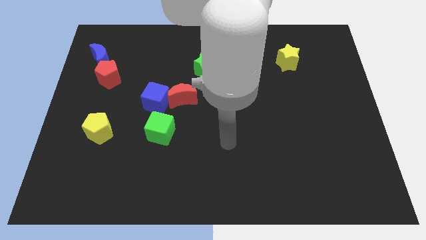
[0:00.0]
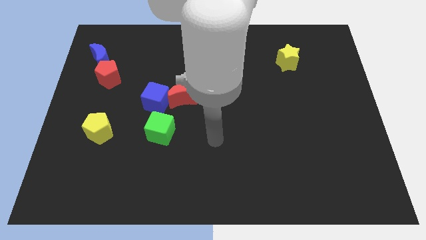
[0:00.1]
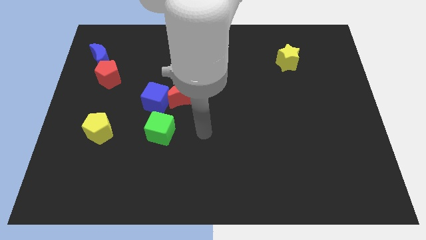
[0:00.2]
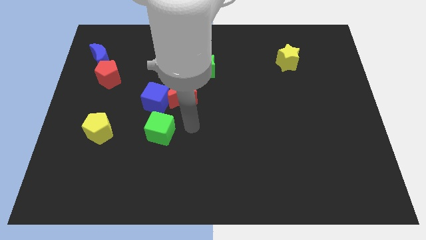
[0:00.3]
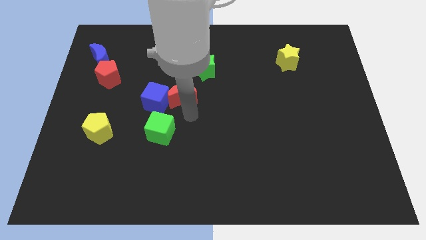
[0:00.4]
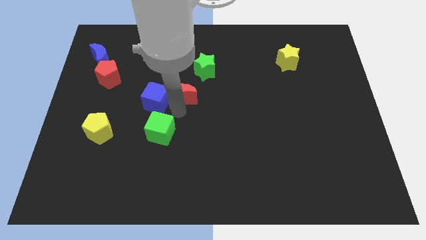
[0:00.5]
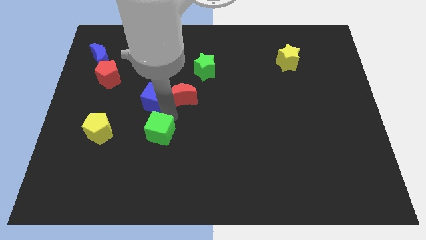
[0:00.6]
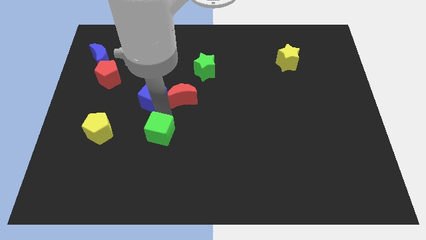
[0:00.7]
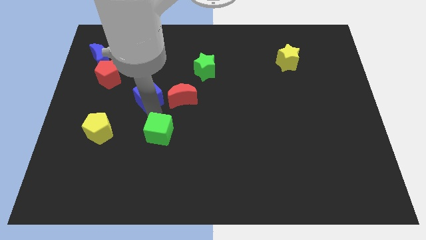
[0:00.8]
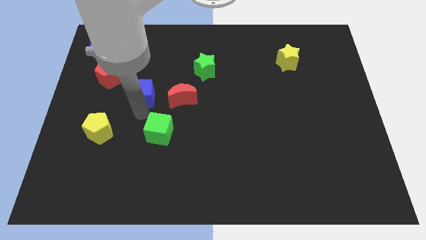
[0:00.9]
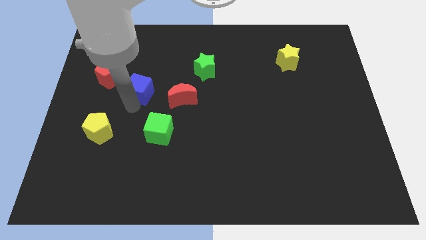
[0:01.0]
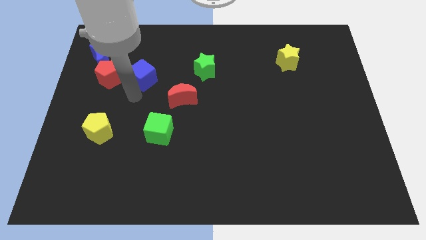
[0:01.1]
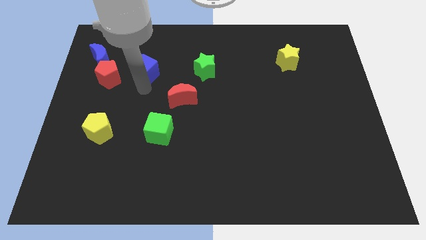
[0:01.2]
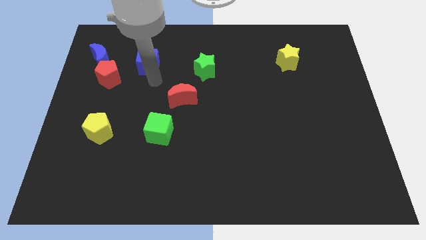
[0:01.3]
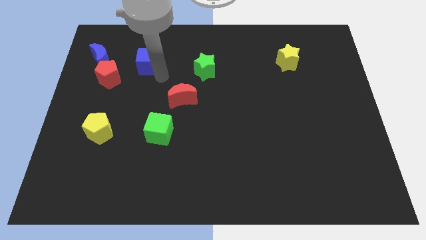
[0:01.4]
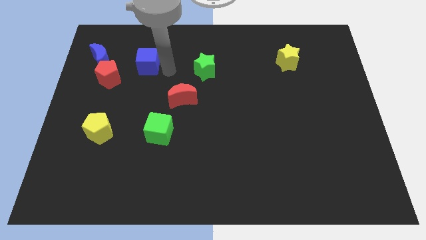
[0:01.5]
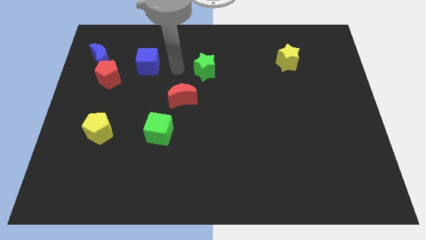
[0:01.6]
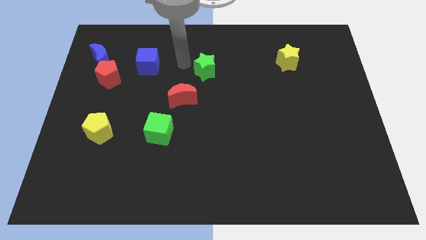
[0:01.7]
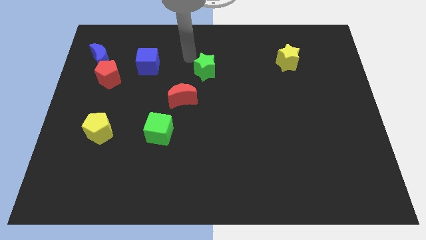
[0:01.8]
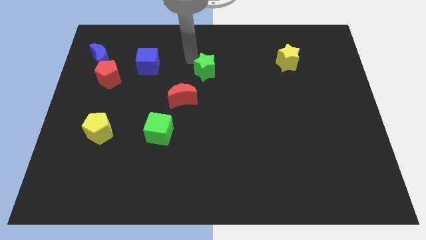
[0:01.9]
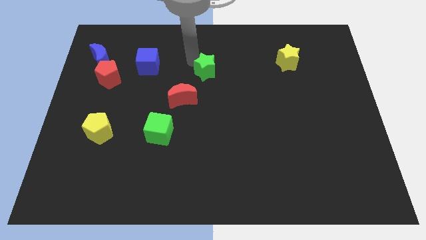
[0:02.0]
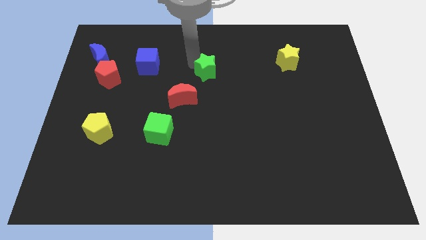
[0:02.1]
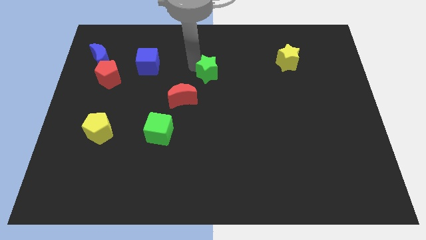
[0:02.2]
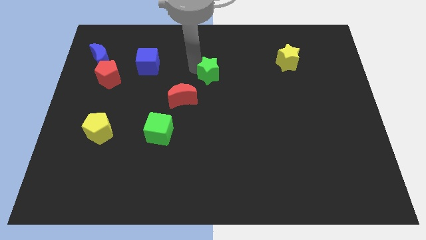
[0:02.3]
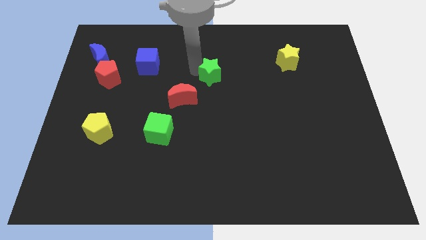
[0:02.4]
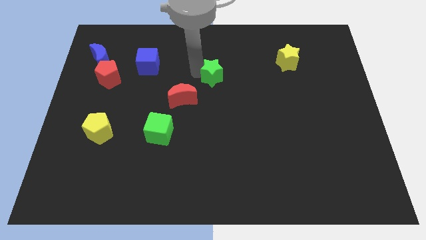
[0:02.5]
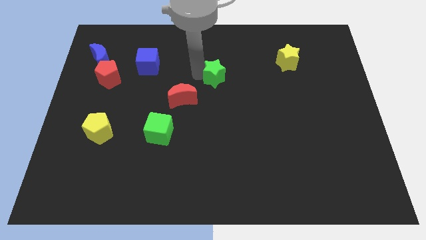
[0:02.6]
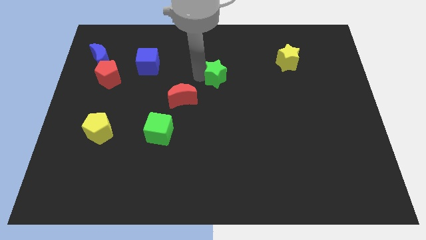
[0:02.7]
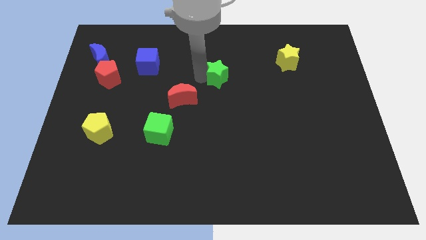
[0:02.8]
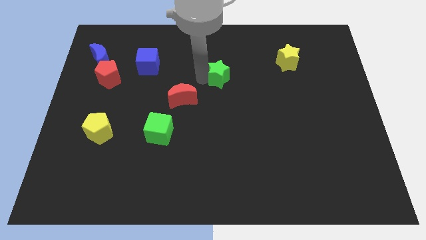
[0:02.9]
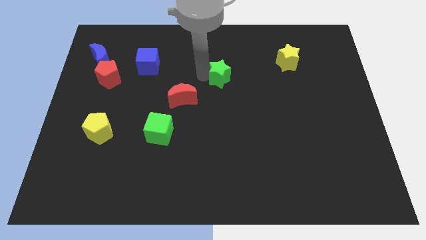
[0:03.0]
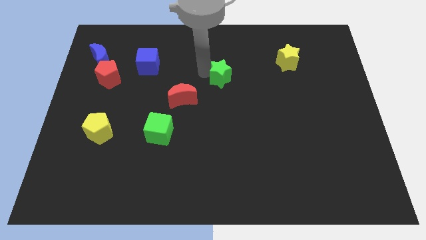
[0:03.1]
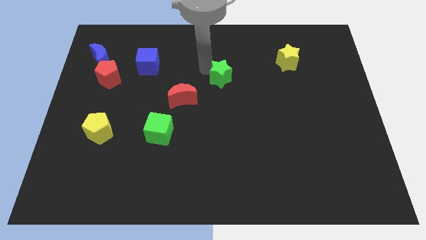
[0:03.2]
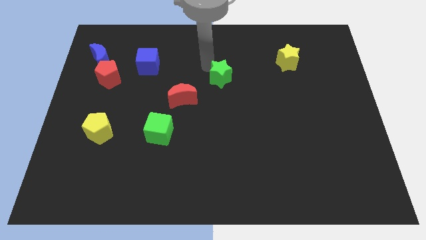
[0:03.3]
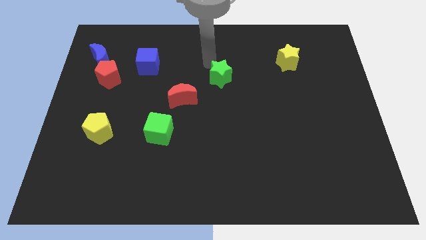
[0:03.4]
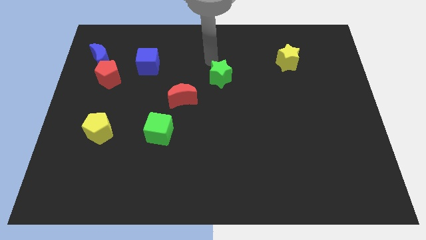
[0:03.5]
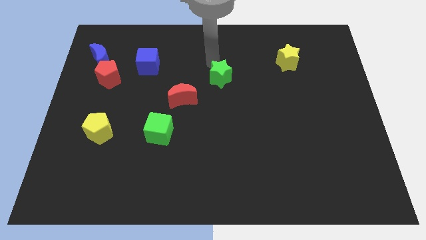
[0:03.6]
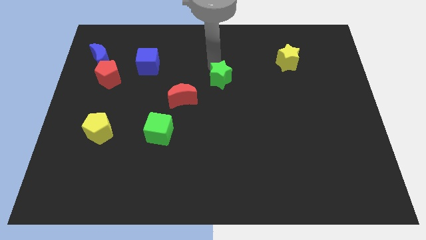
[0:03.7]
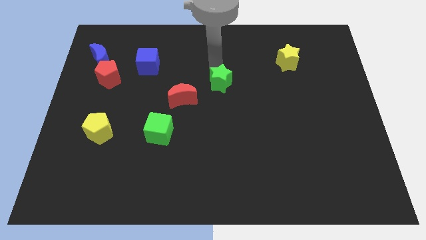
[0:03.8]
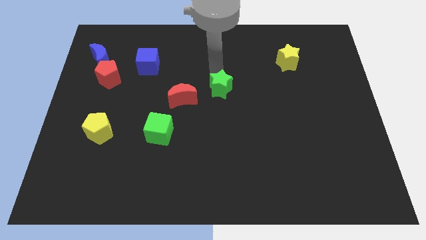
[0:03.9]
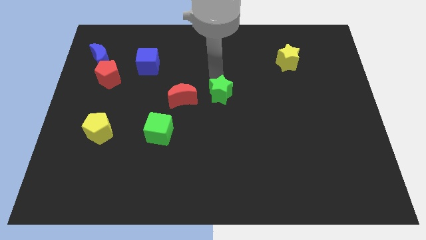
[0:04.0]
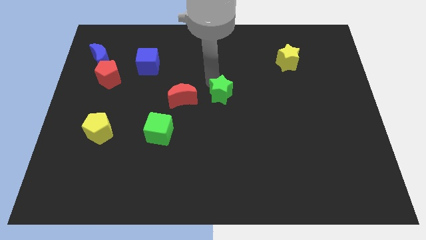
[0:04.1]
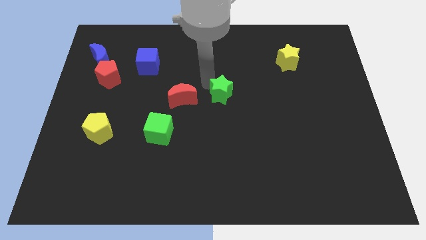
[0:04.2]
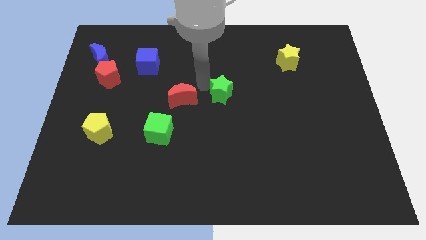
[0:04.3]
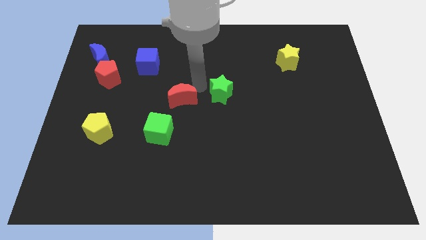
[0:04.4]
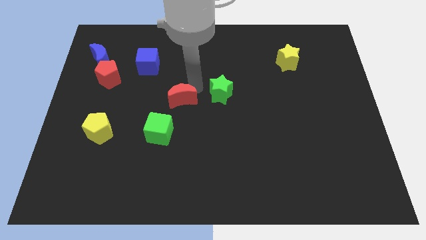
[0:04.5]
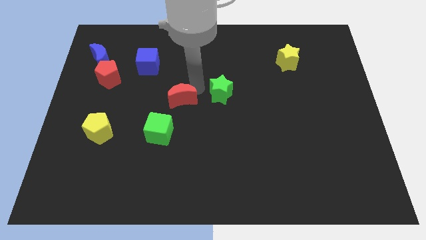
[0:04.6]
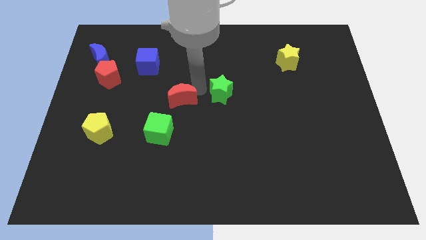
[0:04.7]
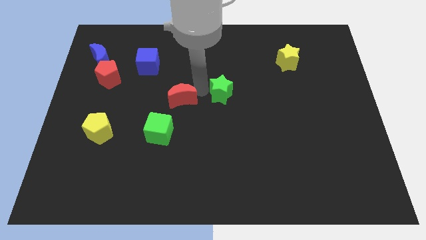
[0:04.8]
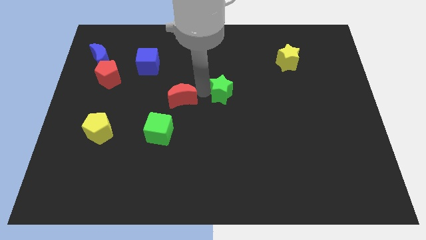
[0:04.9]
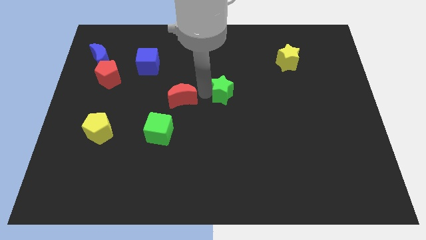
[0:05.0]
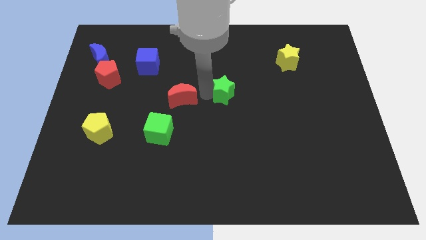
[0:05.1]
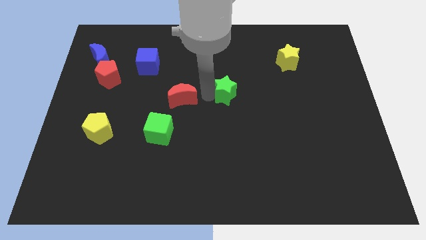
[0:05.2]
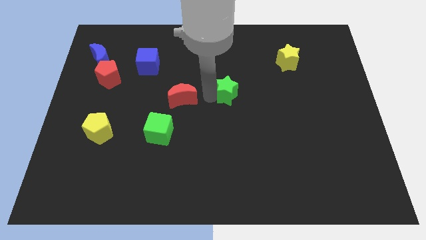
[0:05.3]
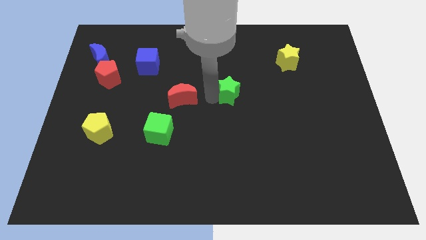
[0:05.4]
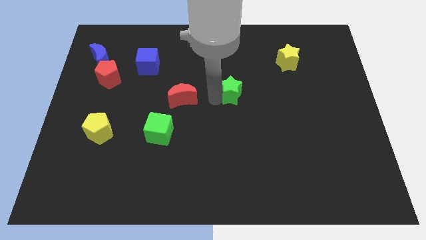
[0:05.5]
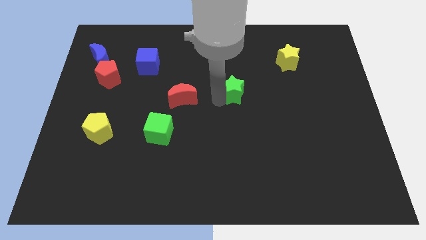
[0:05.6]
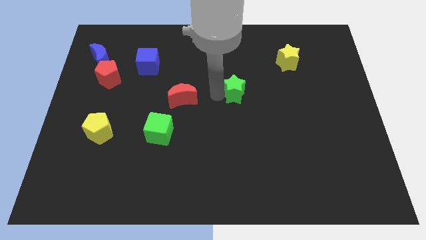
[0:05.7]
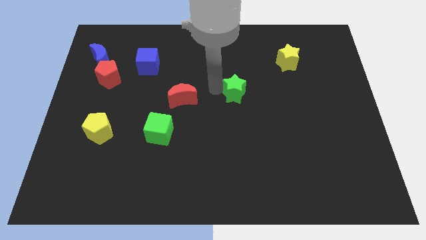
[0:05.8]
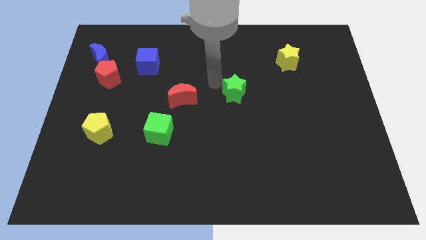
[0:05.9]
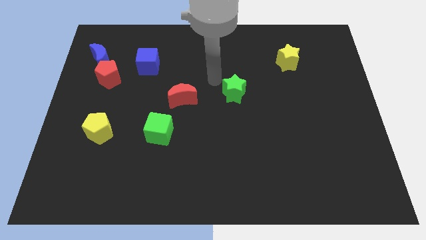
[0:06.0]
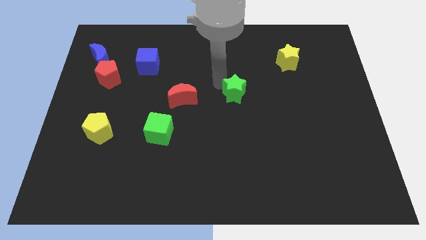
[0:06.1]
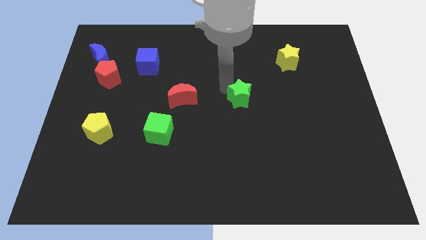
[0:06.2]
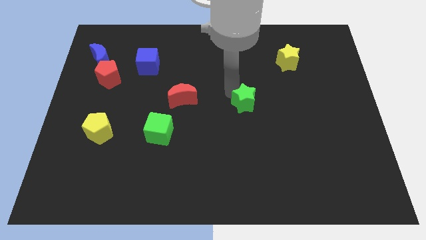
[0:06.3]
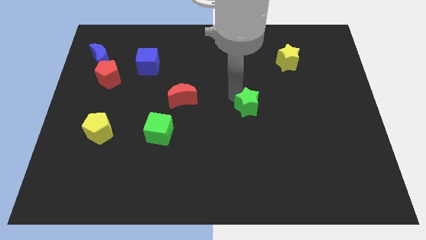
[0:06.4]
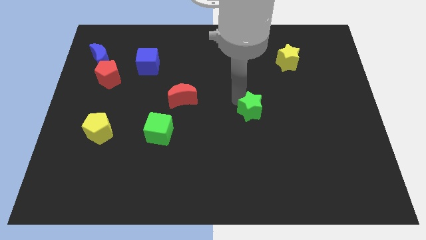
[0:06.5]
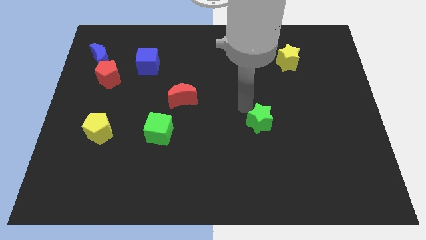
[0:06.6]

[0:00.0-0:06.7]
slide the green star downwards and right

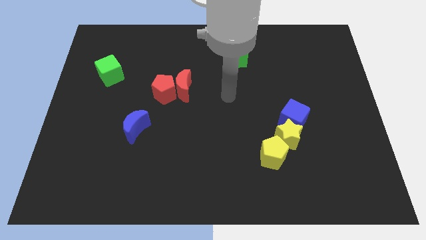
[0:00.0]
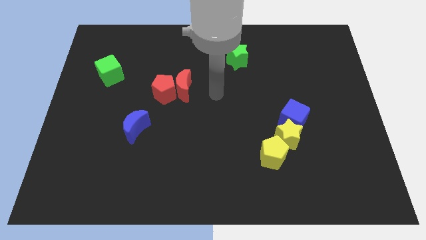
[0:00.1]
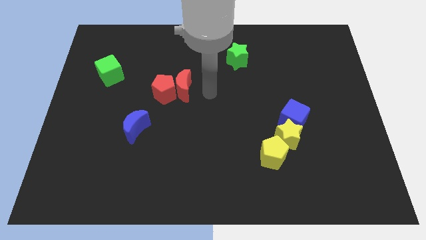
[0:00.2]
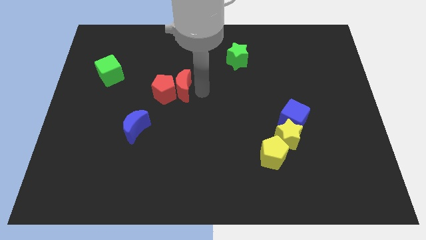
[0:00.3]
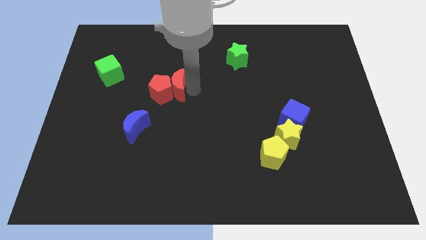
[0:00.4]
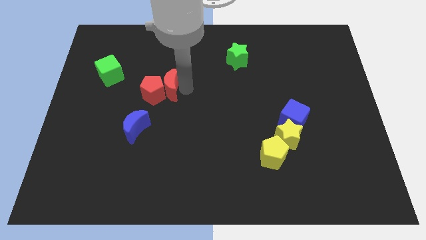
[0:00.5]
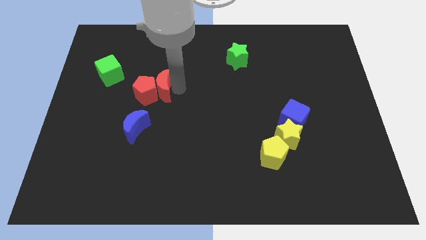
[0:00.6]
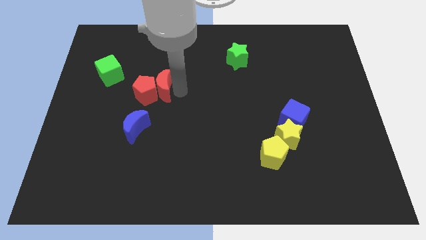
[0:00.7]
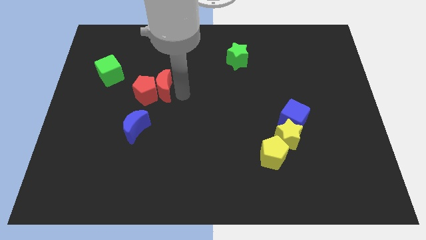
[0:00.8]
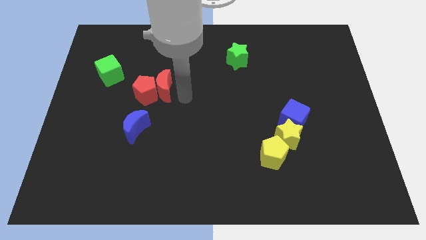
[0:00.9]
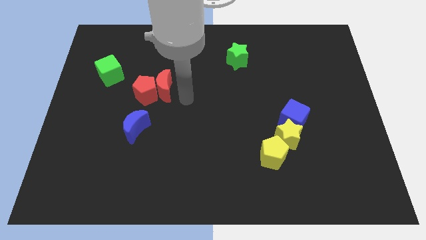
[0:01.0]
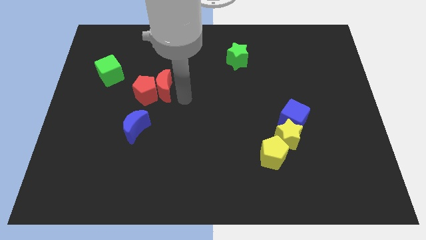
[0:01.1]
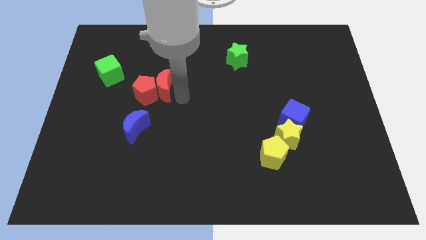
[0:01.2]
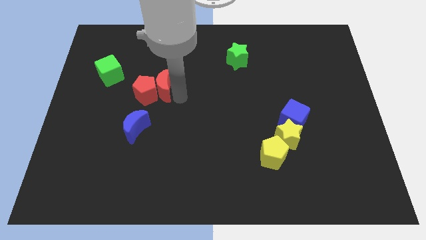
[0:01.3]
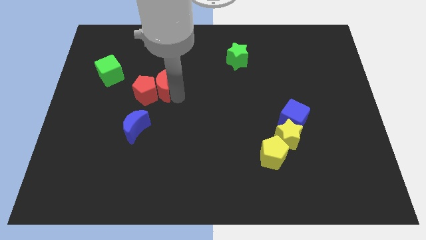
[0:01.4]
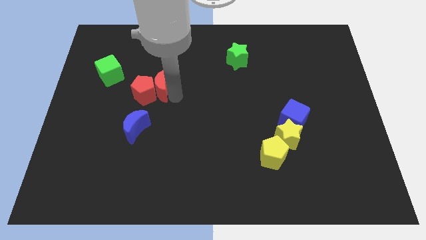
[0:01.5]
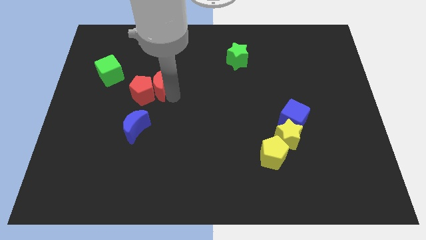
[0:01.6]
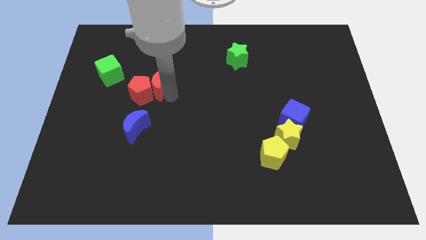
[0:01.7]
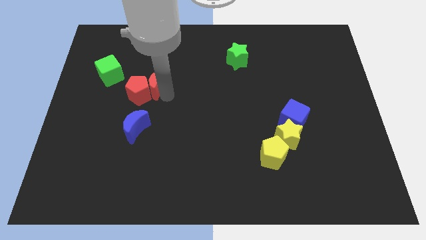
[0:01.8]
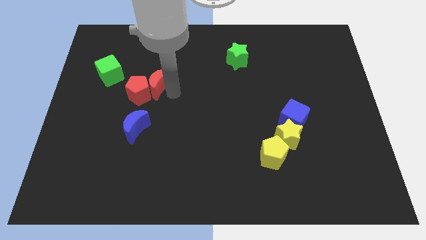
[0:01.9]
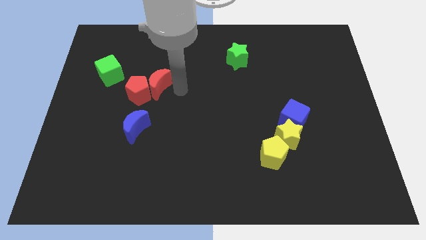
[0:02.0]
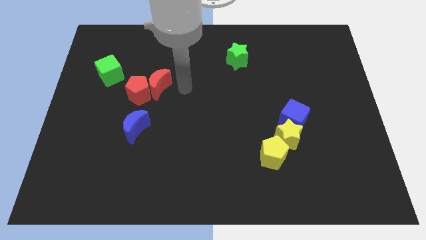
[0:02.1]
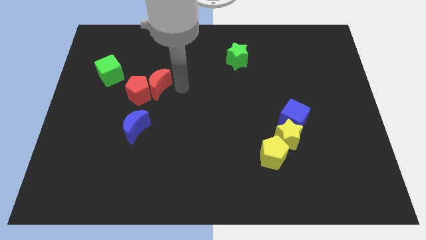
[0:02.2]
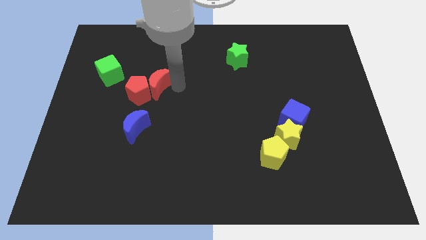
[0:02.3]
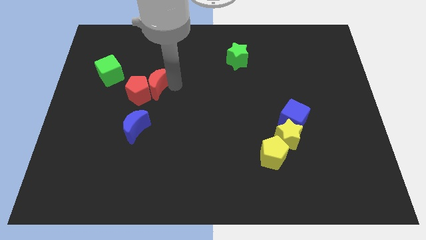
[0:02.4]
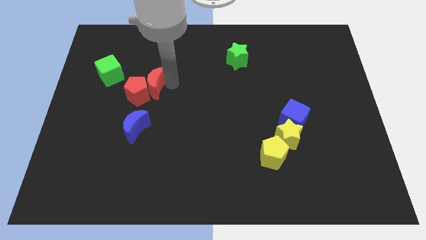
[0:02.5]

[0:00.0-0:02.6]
move the red moon to the left somewhat
